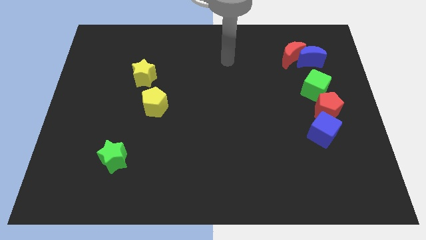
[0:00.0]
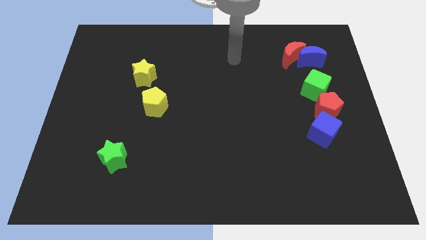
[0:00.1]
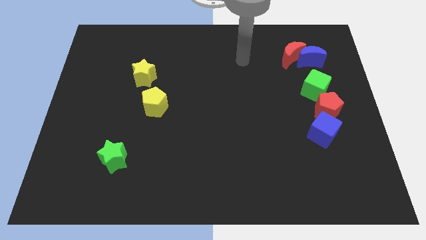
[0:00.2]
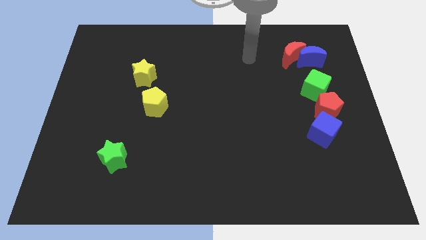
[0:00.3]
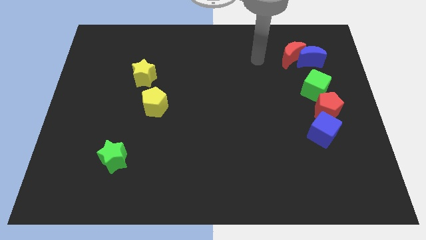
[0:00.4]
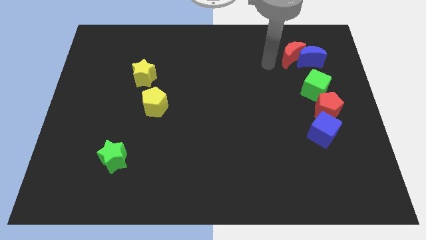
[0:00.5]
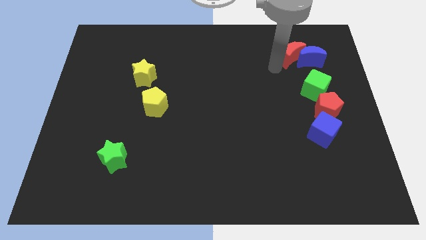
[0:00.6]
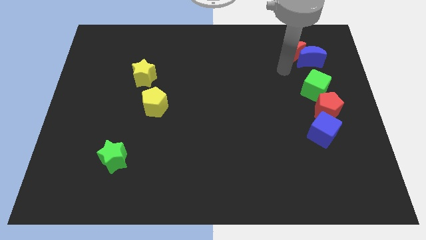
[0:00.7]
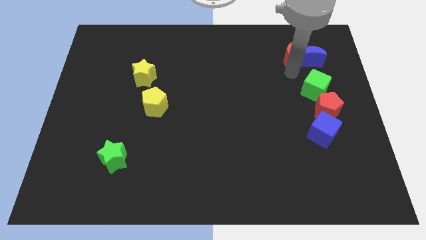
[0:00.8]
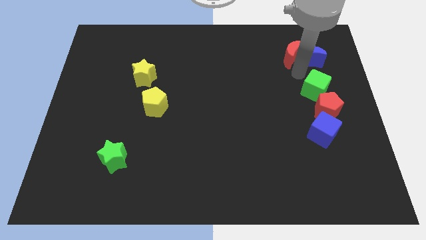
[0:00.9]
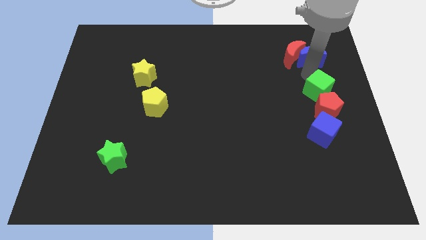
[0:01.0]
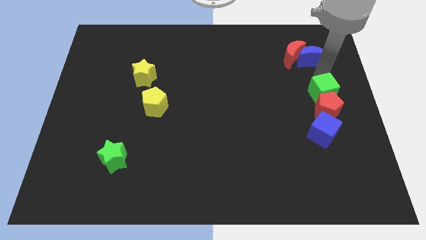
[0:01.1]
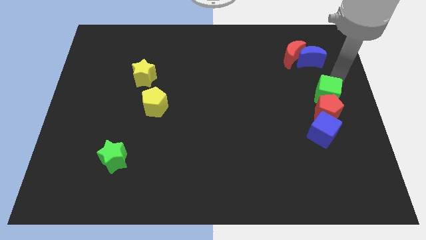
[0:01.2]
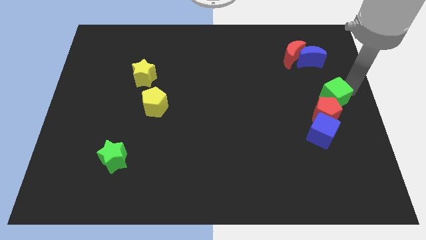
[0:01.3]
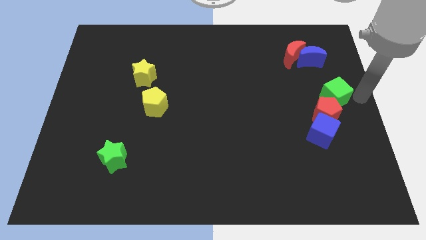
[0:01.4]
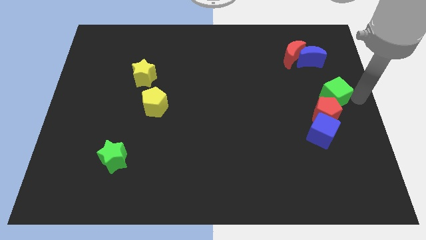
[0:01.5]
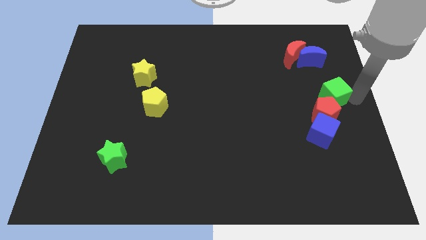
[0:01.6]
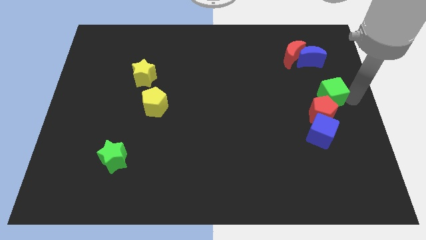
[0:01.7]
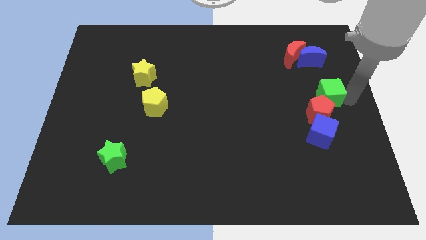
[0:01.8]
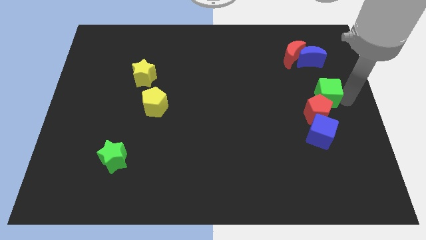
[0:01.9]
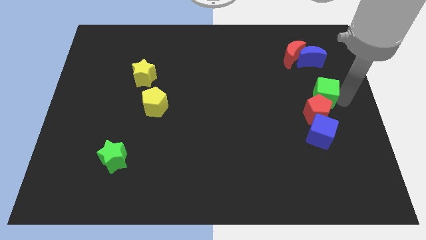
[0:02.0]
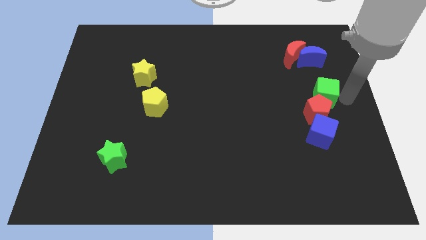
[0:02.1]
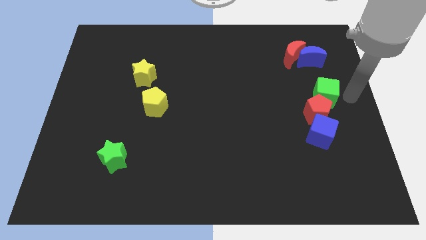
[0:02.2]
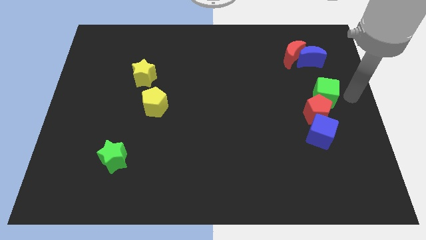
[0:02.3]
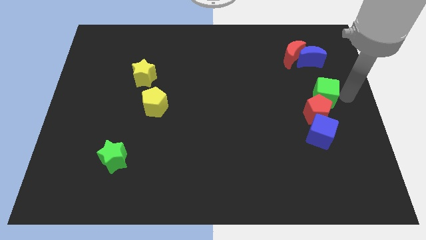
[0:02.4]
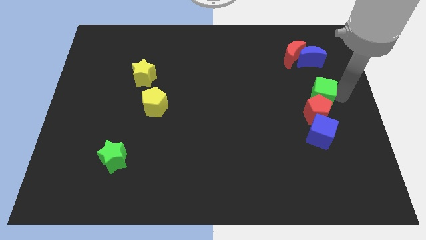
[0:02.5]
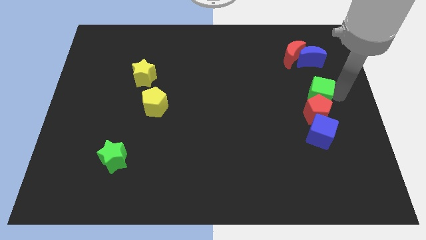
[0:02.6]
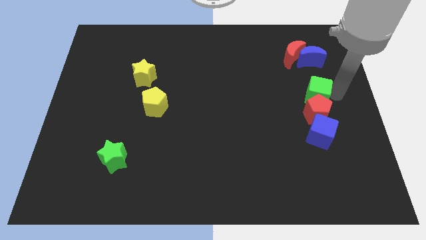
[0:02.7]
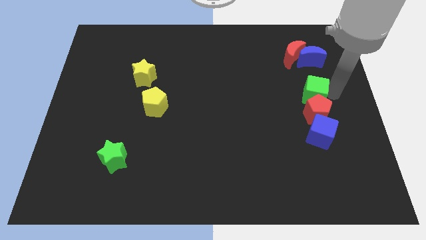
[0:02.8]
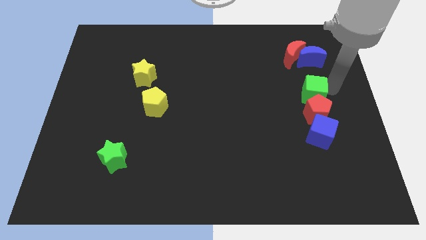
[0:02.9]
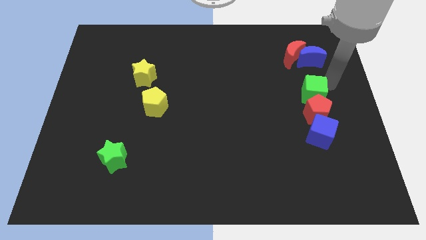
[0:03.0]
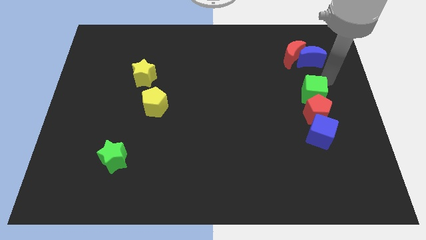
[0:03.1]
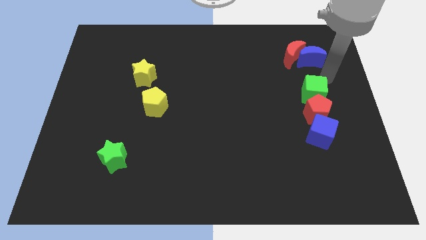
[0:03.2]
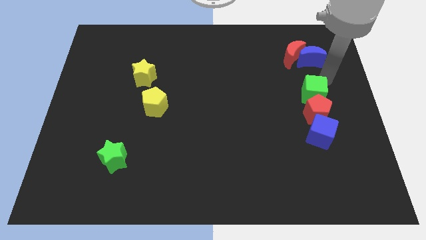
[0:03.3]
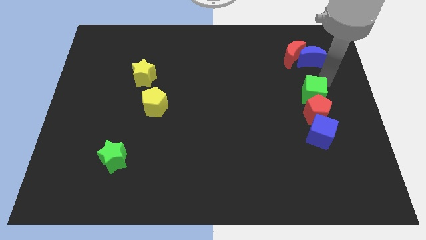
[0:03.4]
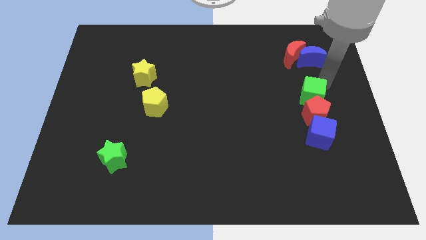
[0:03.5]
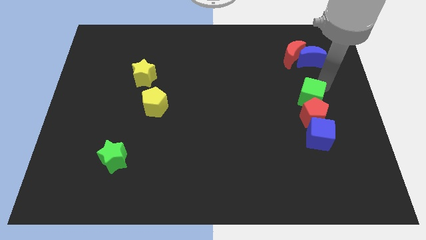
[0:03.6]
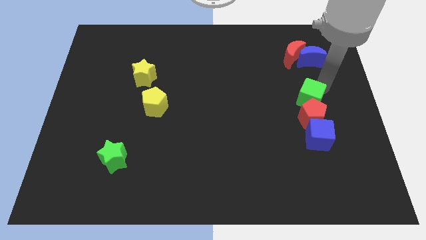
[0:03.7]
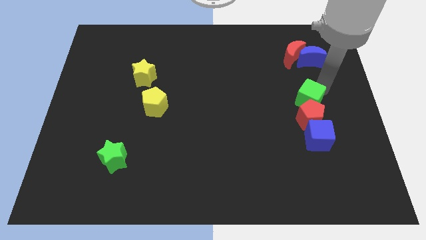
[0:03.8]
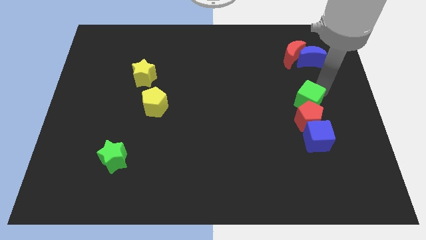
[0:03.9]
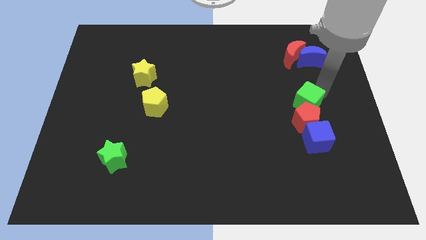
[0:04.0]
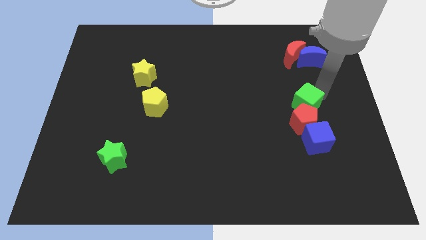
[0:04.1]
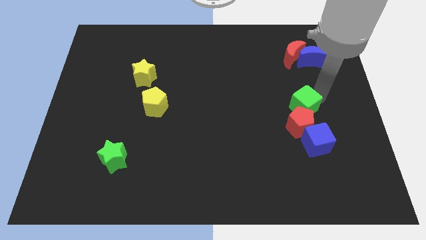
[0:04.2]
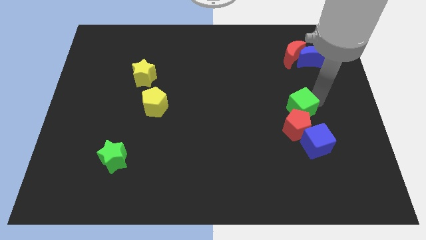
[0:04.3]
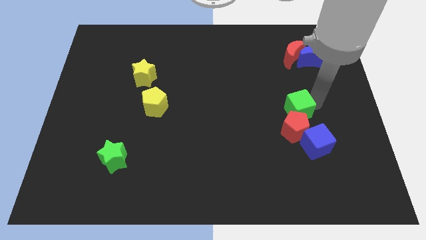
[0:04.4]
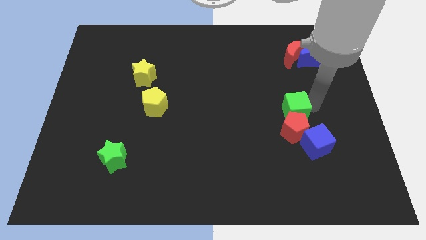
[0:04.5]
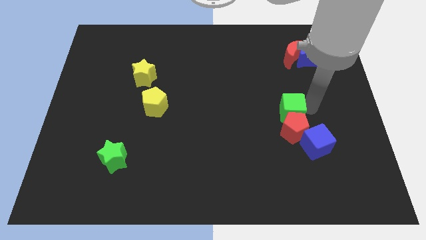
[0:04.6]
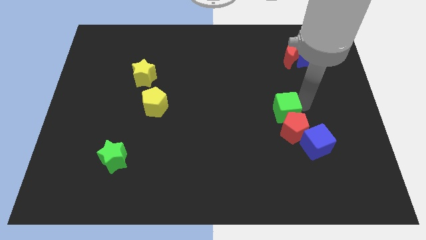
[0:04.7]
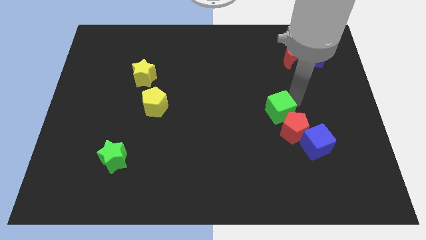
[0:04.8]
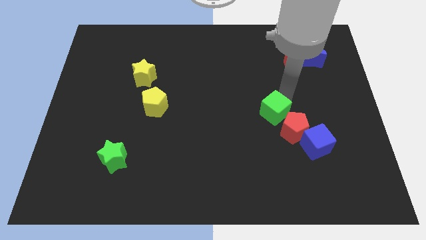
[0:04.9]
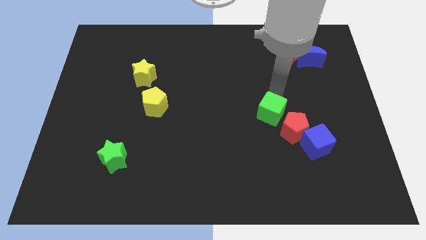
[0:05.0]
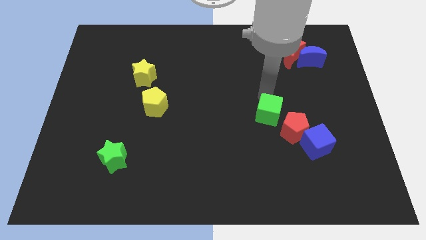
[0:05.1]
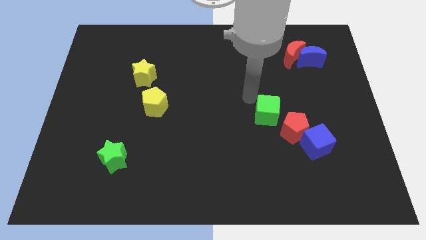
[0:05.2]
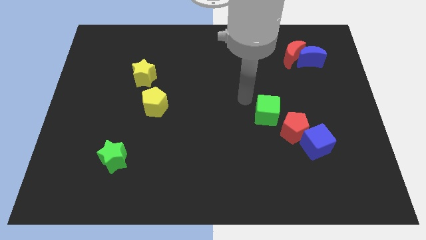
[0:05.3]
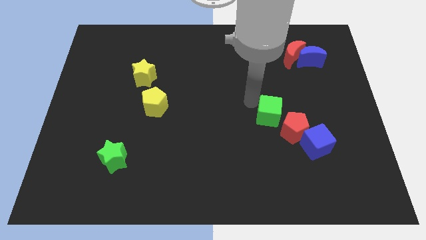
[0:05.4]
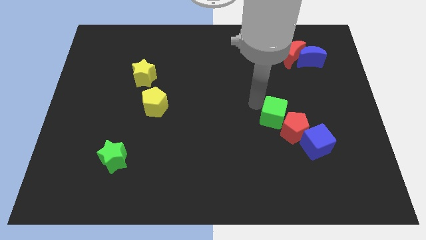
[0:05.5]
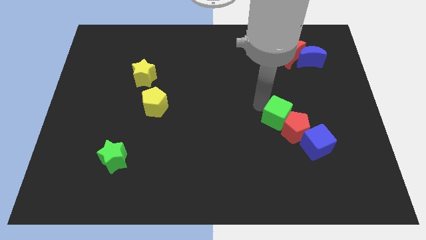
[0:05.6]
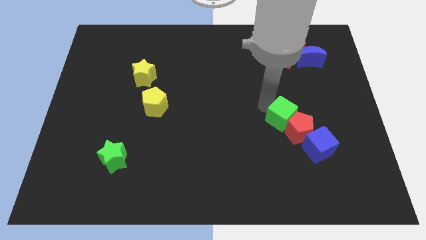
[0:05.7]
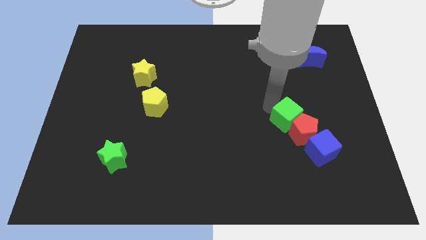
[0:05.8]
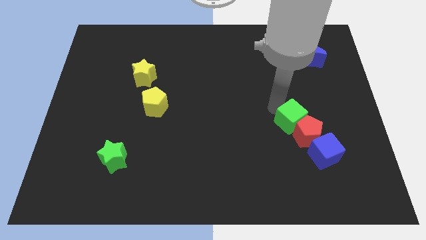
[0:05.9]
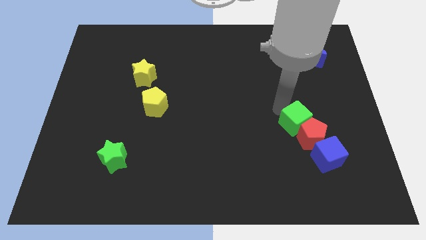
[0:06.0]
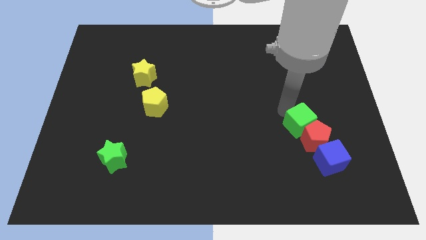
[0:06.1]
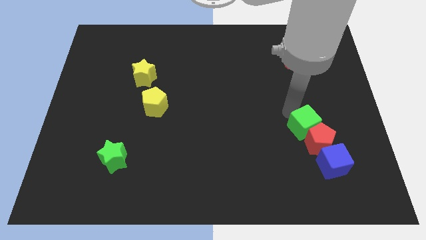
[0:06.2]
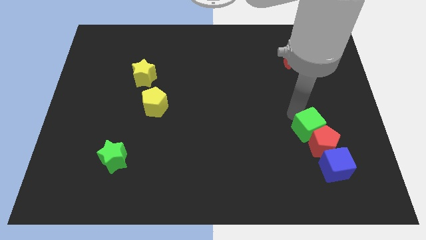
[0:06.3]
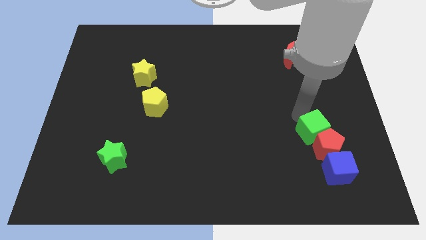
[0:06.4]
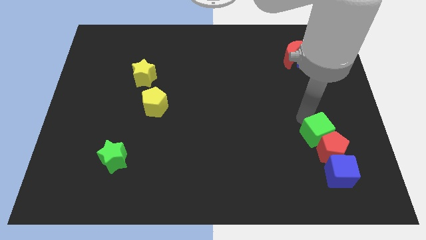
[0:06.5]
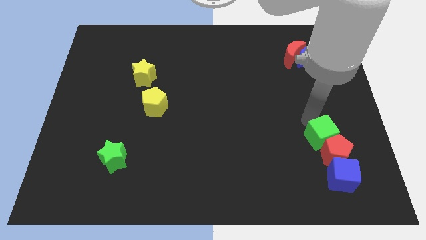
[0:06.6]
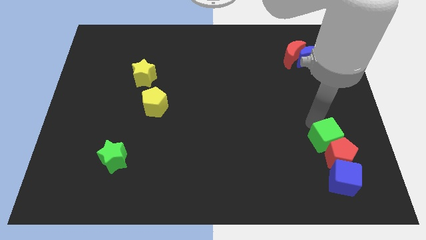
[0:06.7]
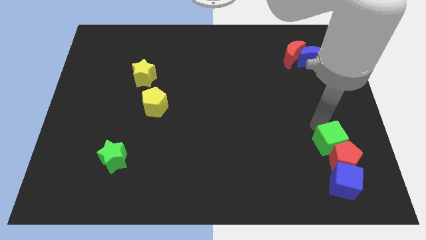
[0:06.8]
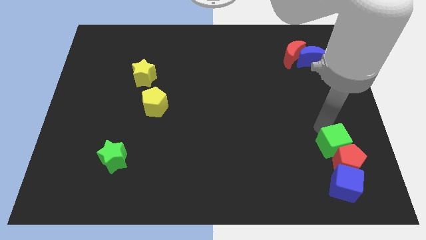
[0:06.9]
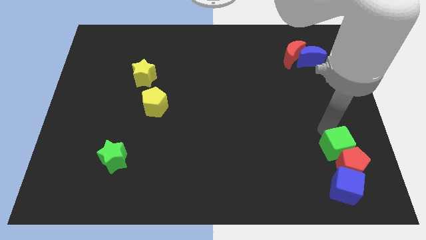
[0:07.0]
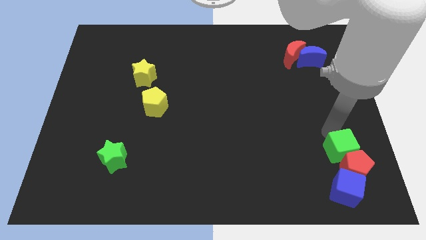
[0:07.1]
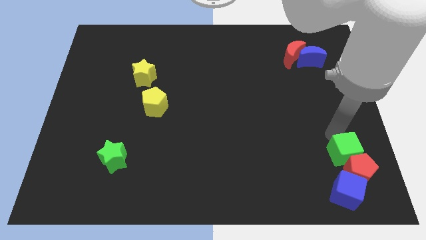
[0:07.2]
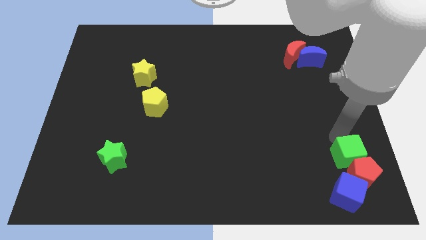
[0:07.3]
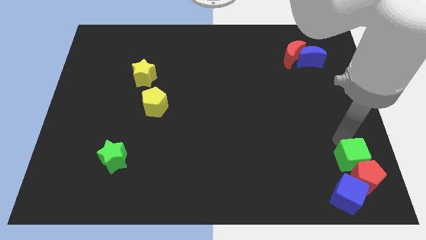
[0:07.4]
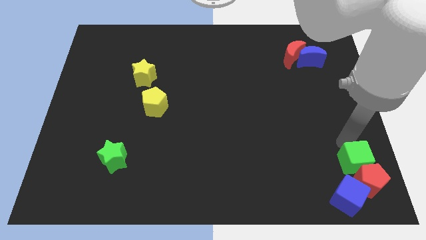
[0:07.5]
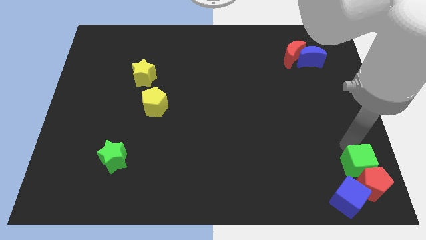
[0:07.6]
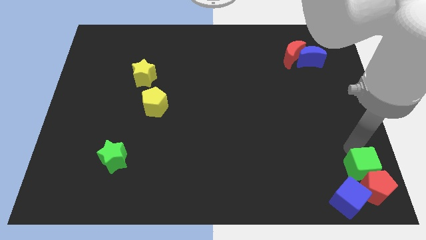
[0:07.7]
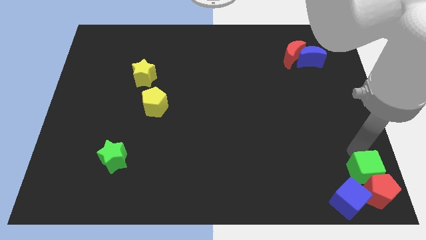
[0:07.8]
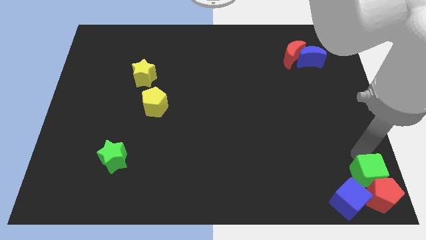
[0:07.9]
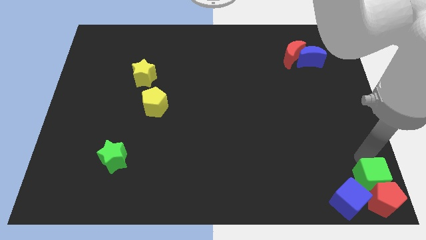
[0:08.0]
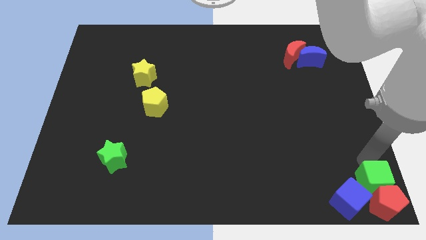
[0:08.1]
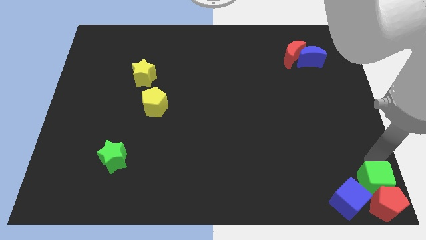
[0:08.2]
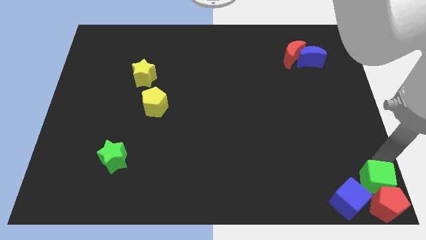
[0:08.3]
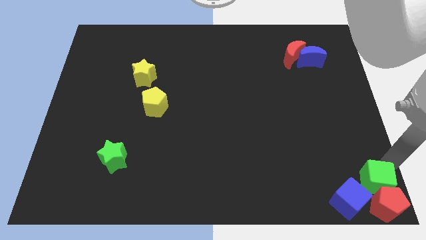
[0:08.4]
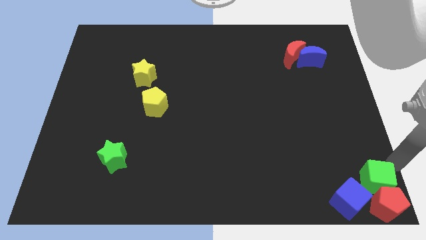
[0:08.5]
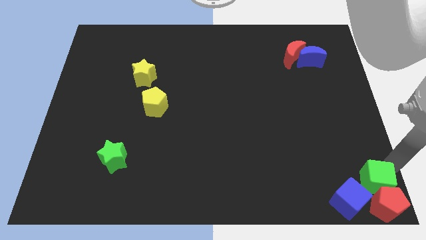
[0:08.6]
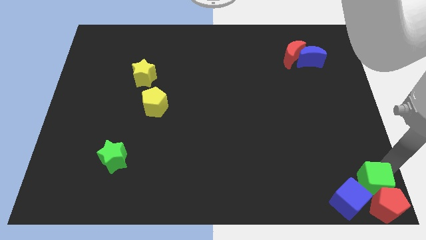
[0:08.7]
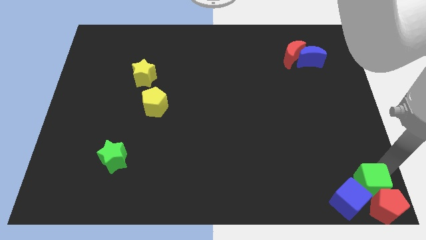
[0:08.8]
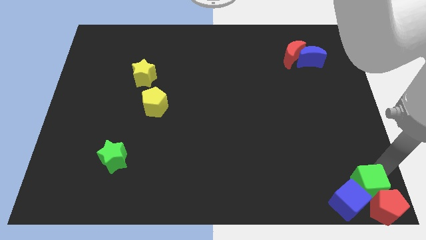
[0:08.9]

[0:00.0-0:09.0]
move the green cube close to the blue cube
